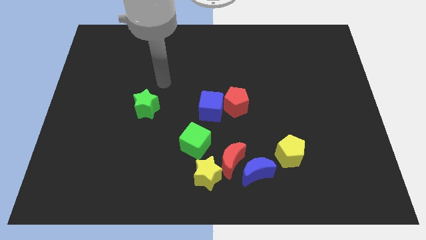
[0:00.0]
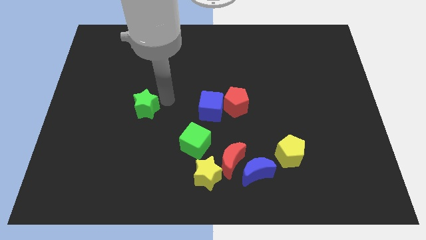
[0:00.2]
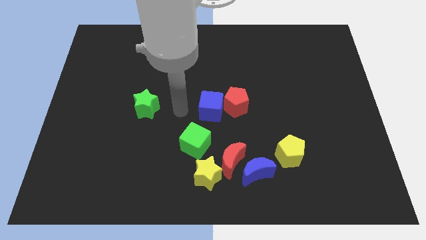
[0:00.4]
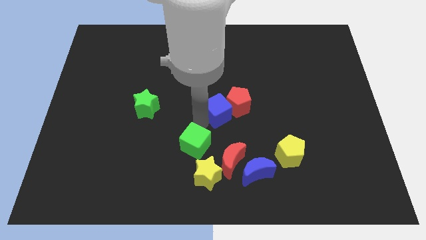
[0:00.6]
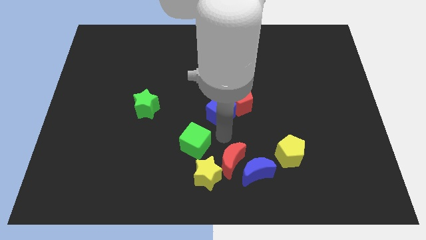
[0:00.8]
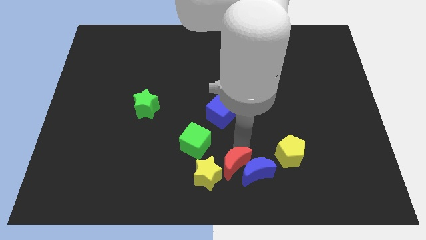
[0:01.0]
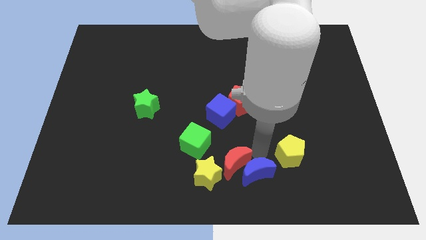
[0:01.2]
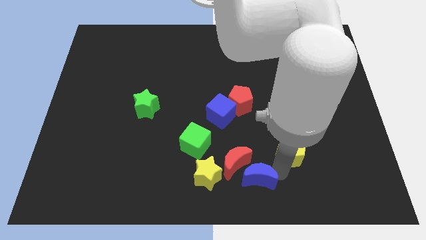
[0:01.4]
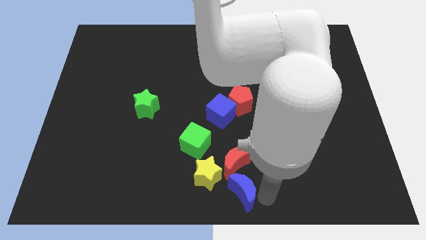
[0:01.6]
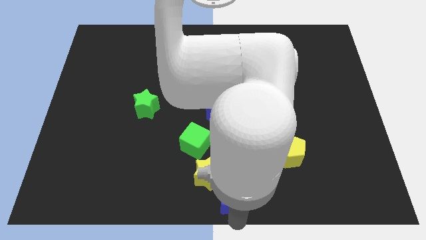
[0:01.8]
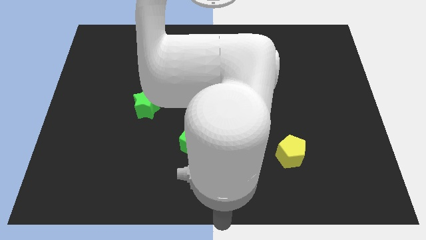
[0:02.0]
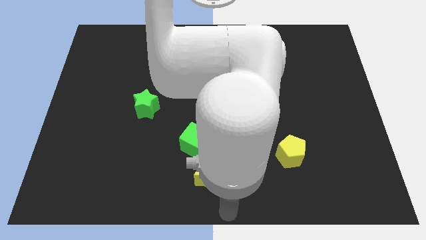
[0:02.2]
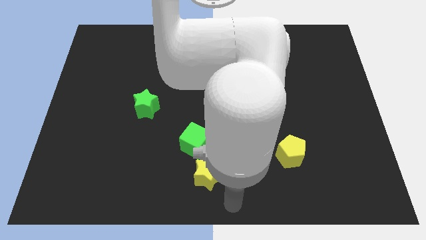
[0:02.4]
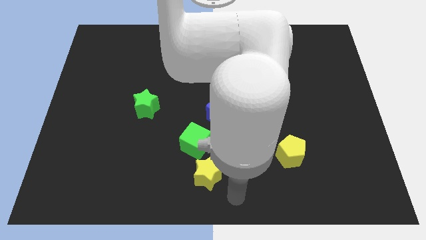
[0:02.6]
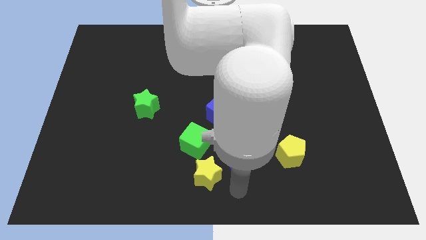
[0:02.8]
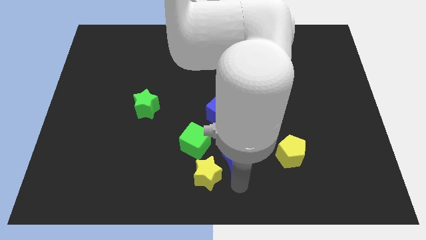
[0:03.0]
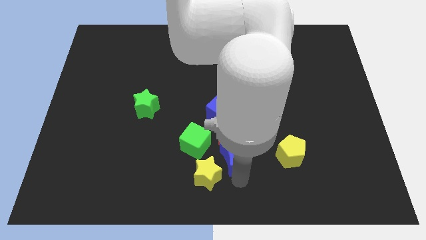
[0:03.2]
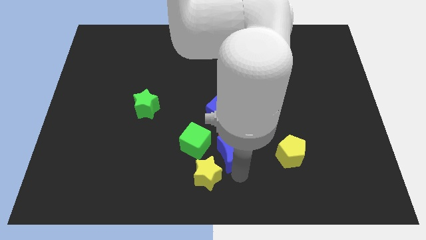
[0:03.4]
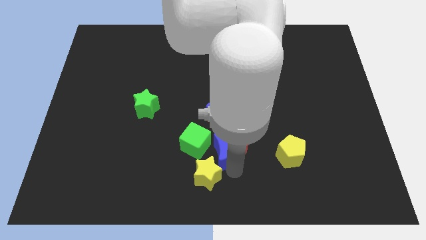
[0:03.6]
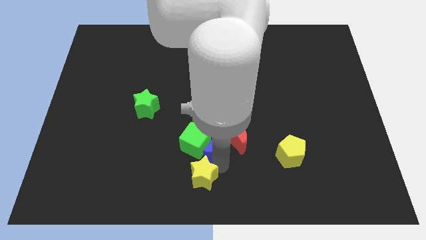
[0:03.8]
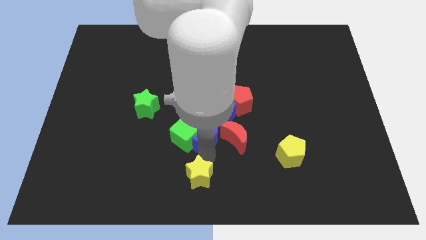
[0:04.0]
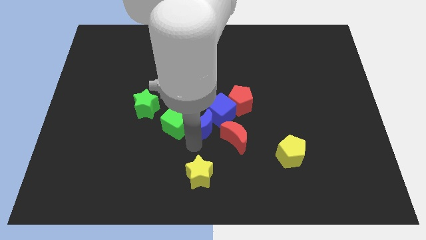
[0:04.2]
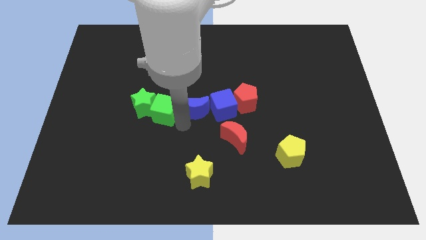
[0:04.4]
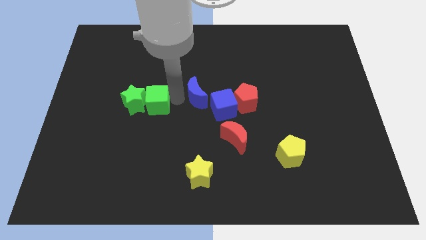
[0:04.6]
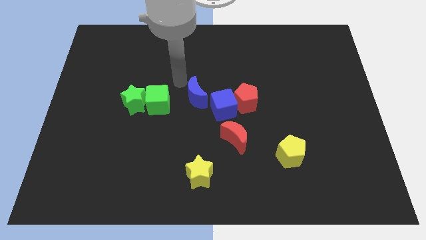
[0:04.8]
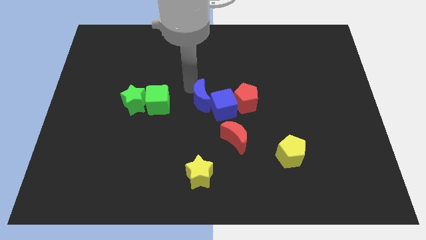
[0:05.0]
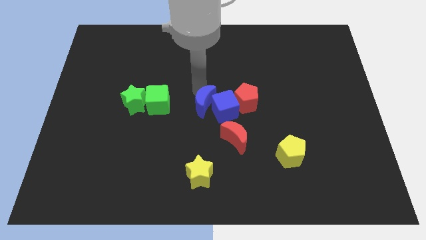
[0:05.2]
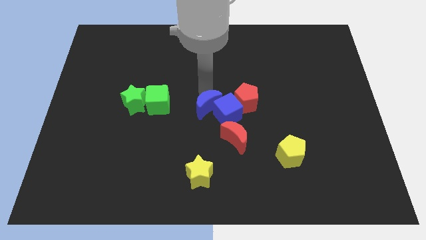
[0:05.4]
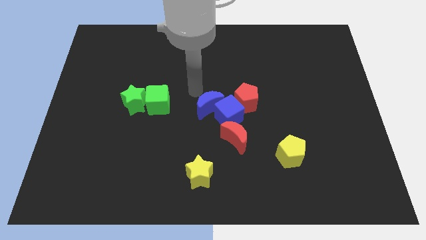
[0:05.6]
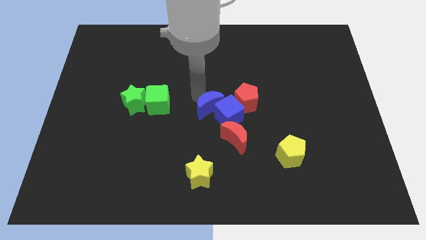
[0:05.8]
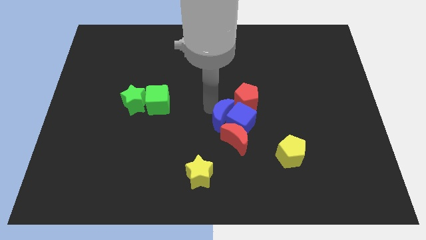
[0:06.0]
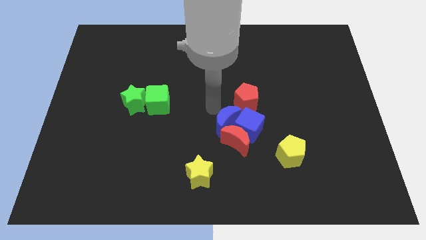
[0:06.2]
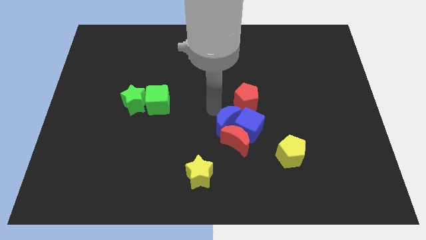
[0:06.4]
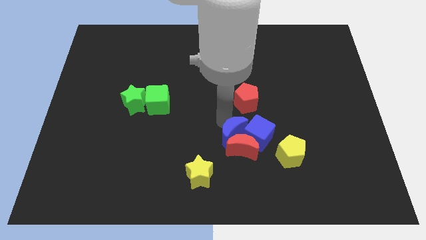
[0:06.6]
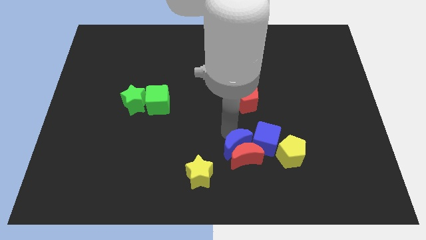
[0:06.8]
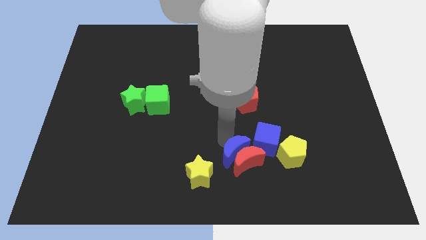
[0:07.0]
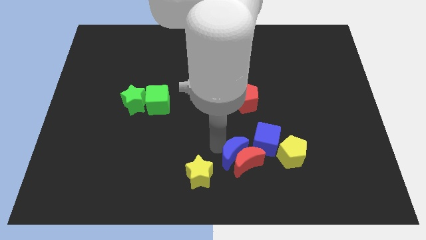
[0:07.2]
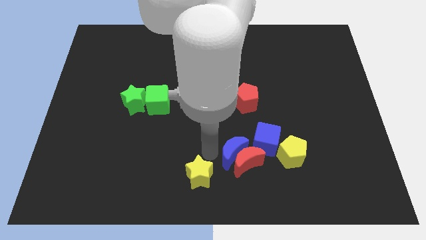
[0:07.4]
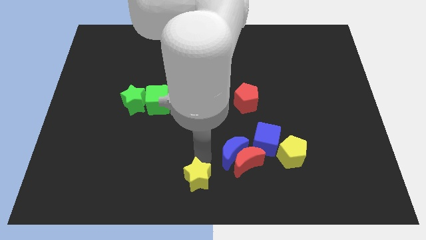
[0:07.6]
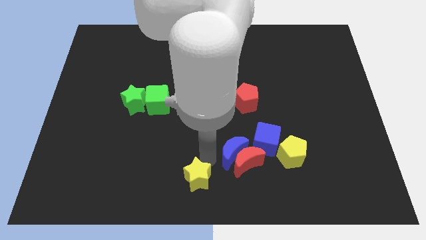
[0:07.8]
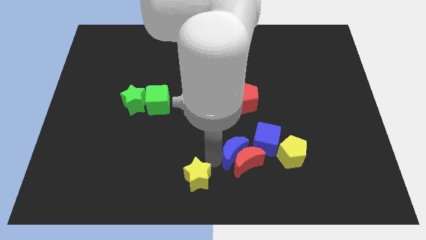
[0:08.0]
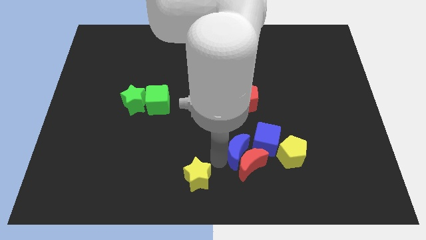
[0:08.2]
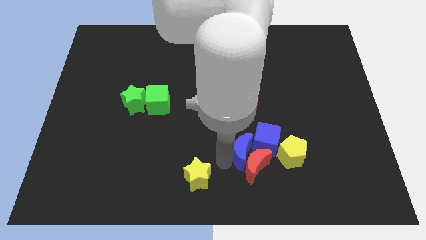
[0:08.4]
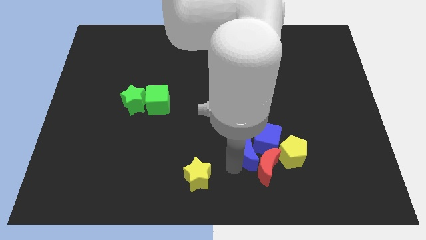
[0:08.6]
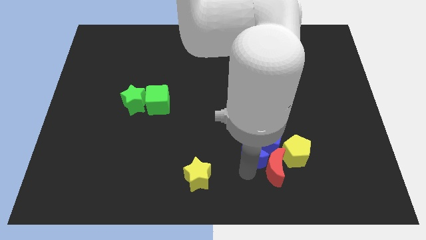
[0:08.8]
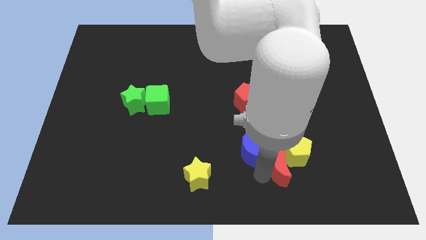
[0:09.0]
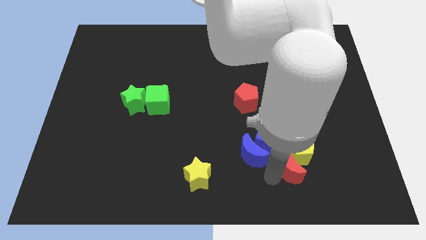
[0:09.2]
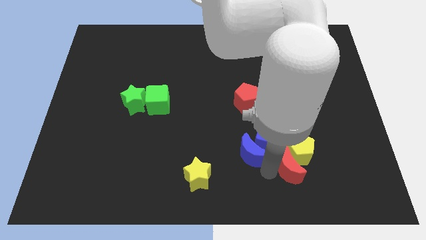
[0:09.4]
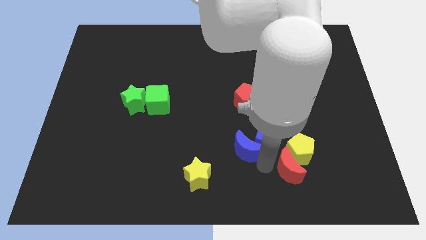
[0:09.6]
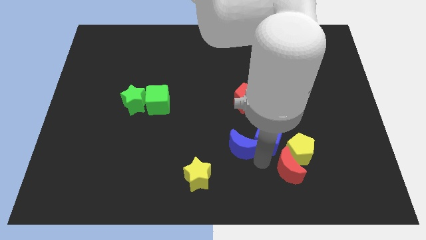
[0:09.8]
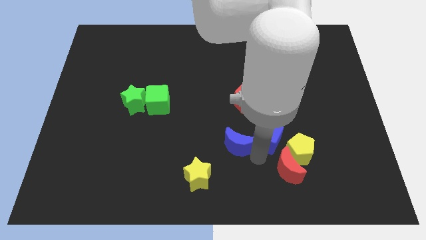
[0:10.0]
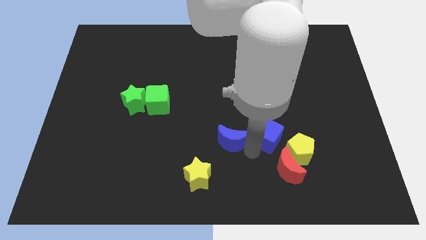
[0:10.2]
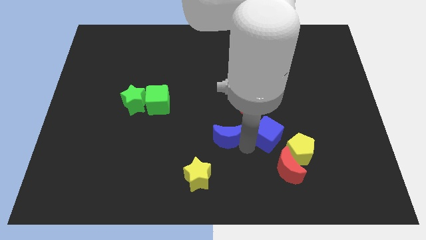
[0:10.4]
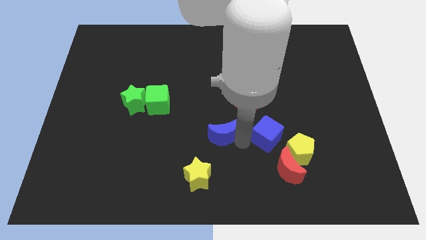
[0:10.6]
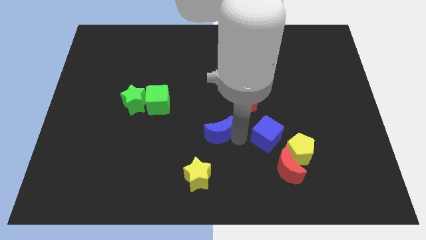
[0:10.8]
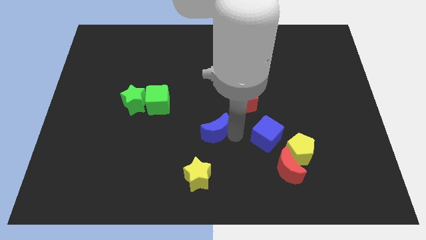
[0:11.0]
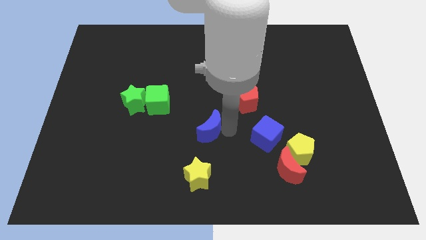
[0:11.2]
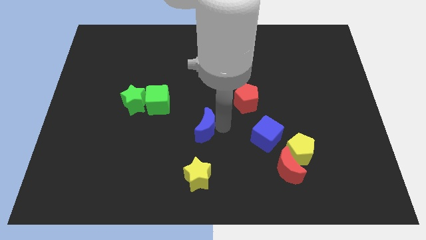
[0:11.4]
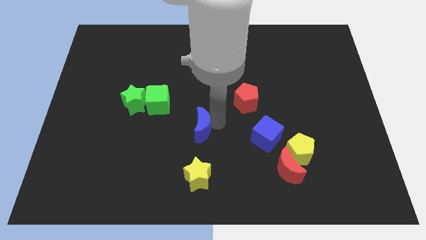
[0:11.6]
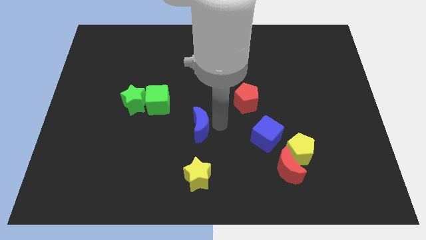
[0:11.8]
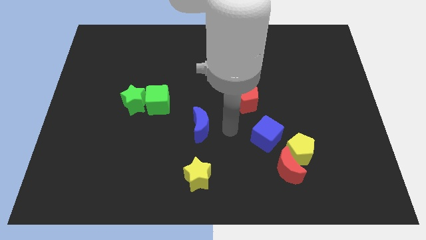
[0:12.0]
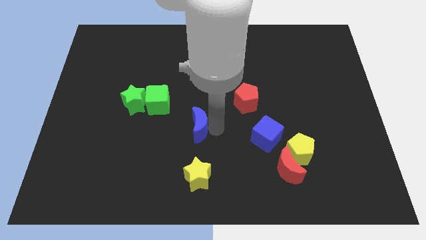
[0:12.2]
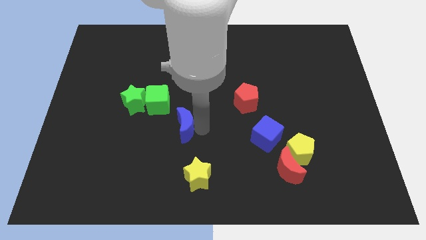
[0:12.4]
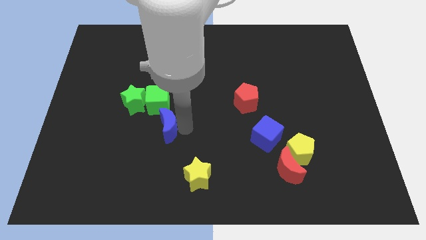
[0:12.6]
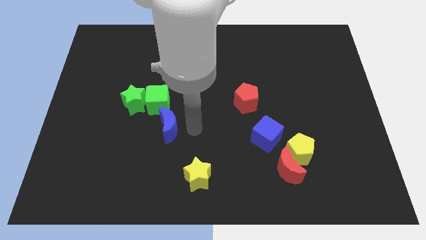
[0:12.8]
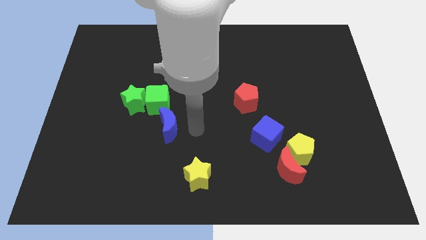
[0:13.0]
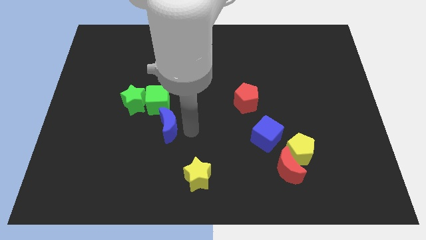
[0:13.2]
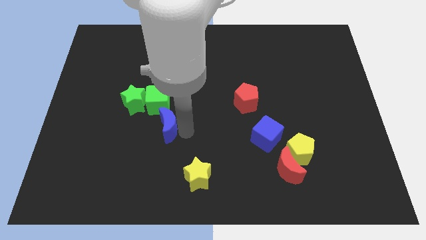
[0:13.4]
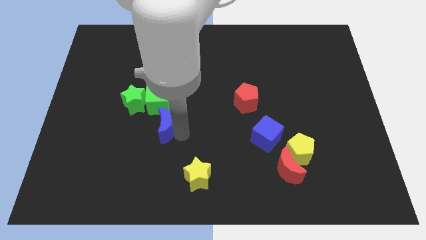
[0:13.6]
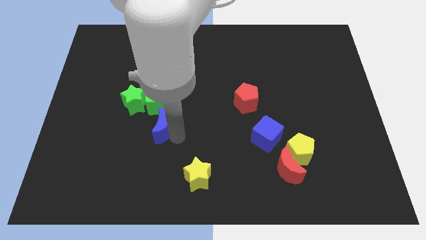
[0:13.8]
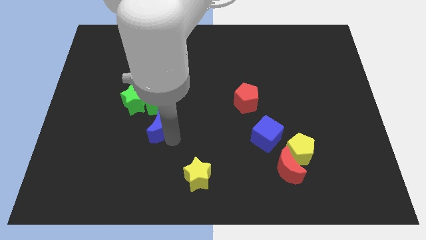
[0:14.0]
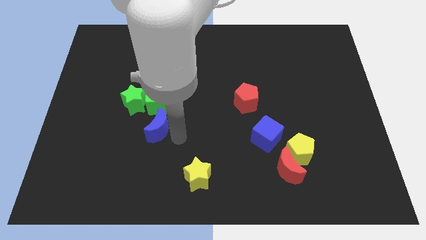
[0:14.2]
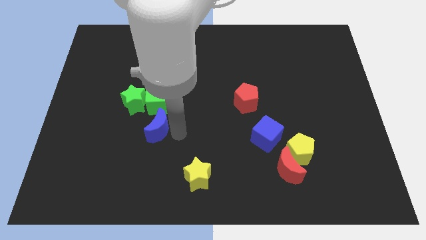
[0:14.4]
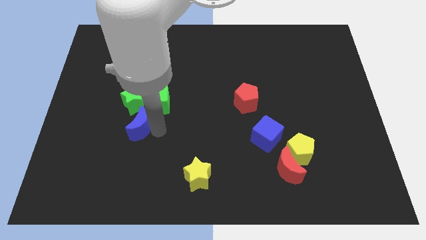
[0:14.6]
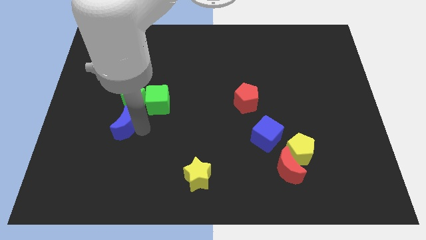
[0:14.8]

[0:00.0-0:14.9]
slide the blue moon diagonally down and to the left of the green star

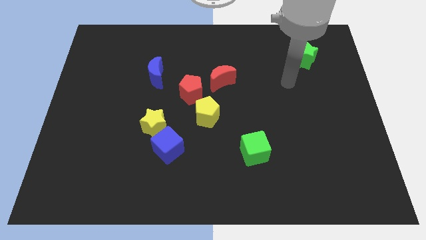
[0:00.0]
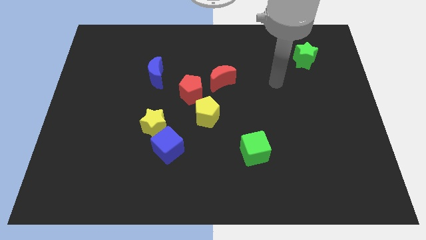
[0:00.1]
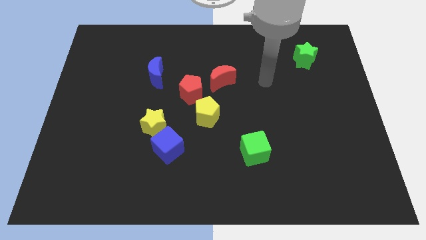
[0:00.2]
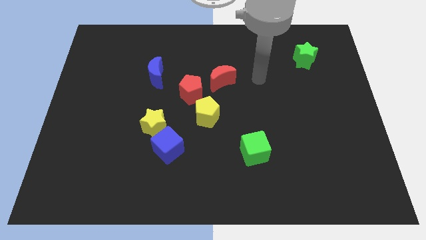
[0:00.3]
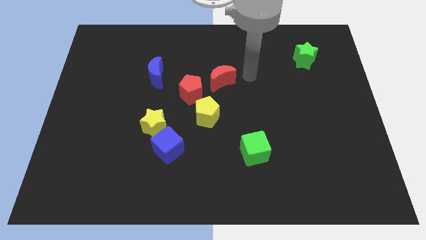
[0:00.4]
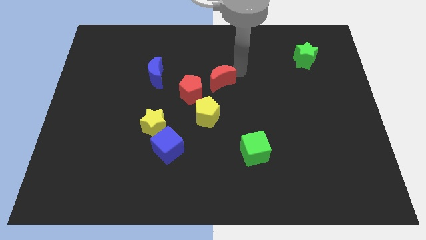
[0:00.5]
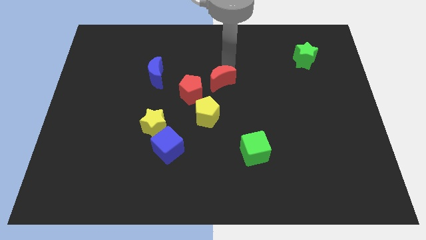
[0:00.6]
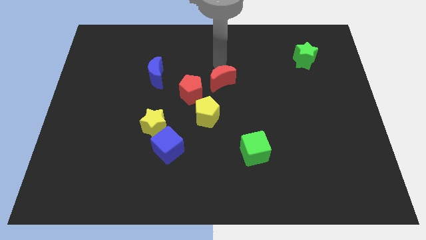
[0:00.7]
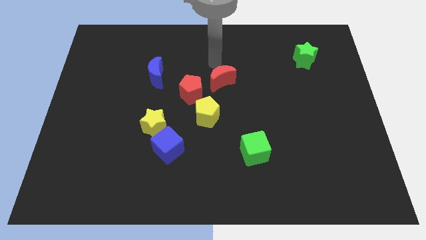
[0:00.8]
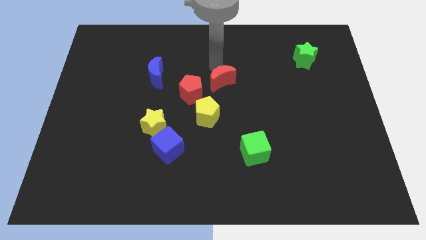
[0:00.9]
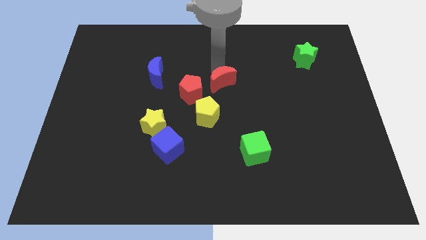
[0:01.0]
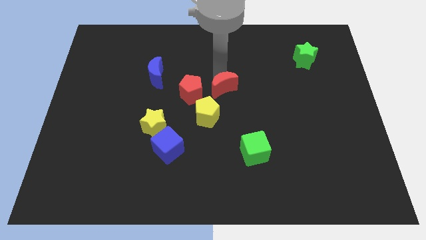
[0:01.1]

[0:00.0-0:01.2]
push the red moon to the top right of the yellow pentagon
